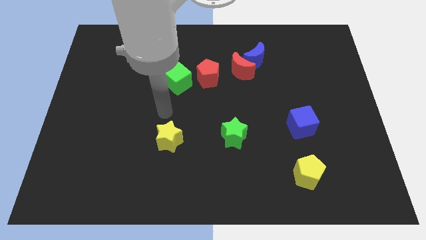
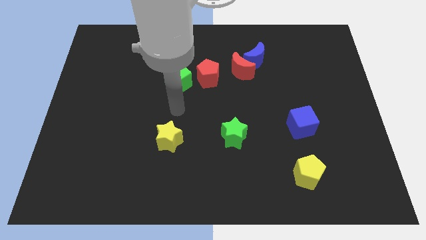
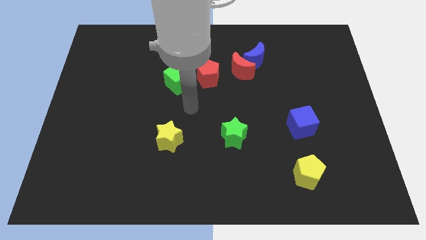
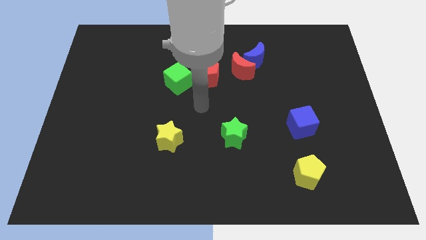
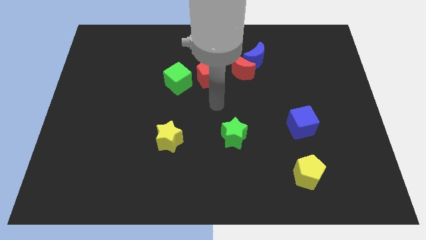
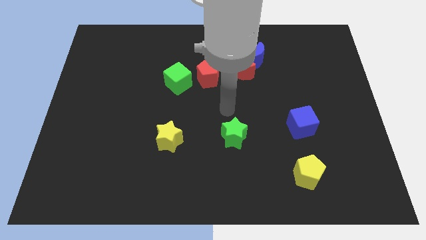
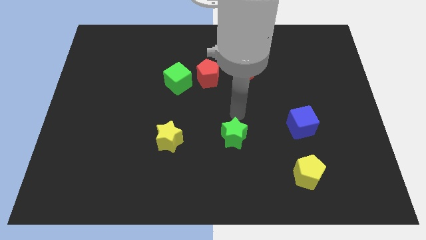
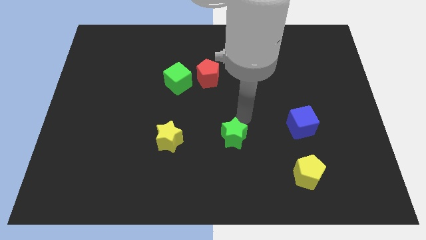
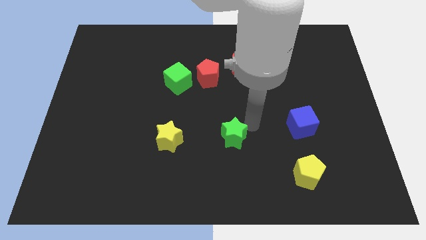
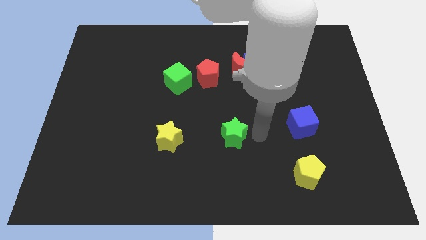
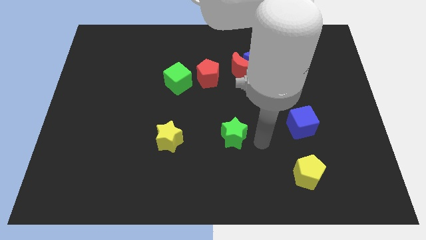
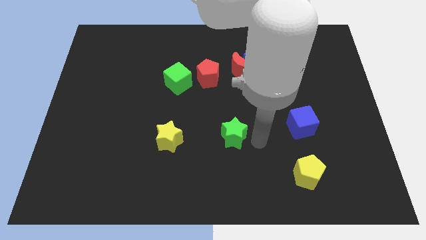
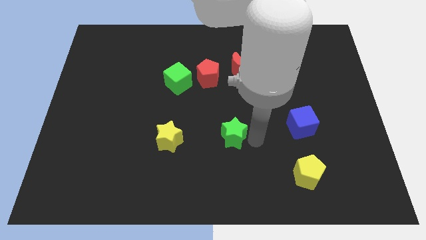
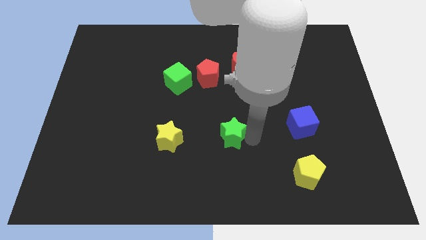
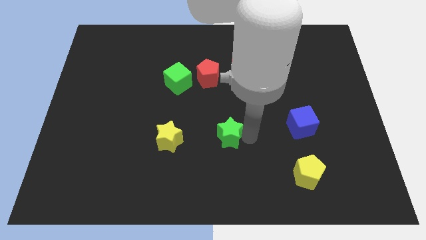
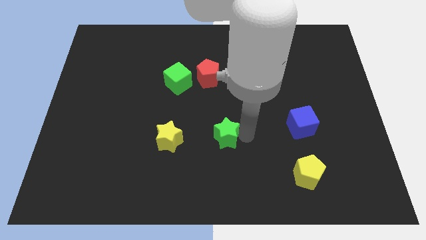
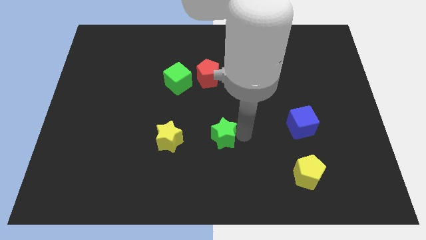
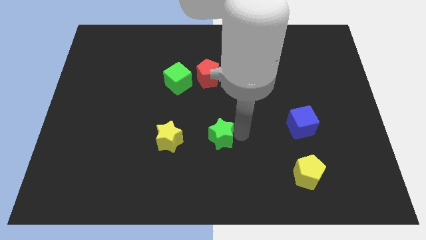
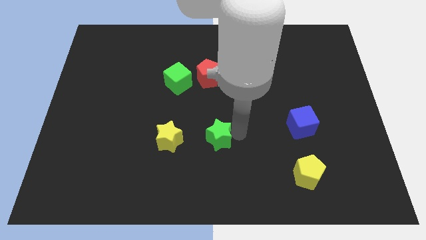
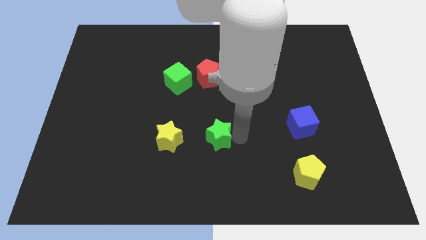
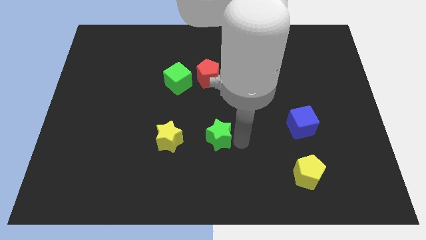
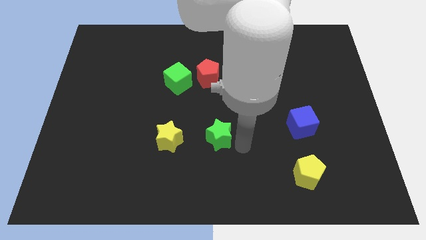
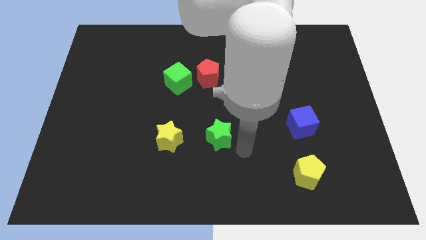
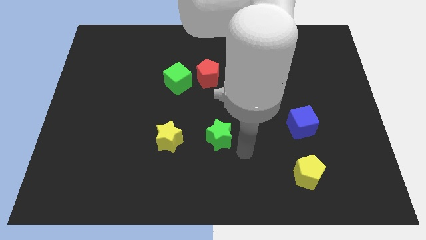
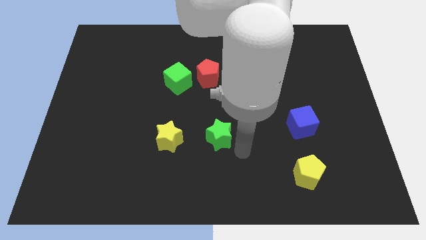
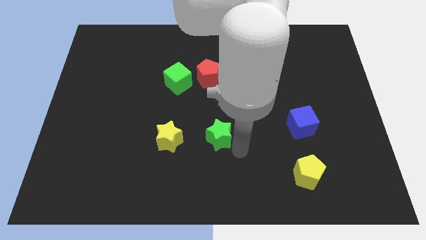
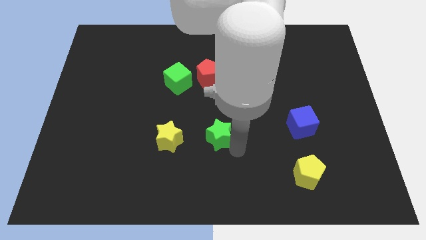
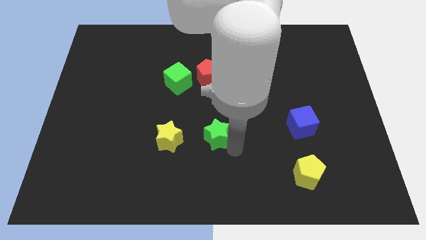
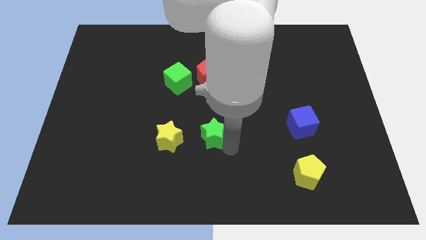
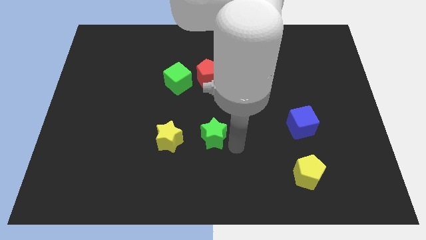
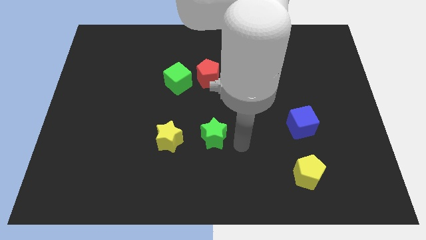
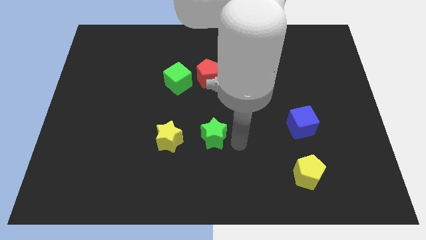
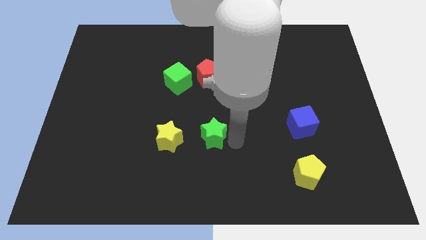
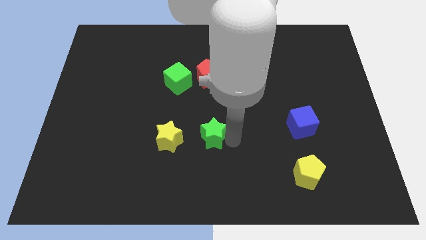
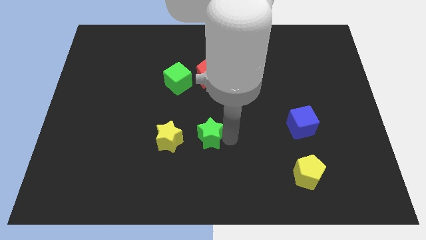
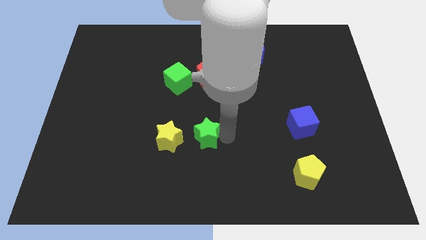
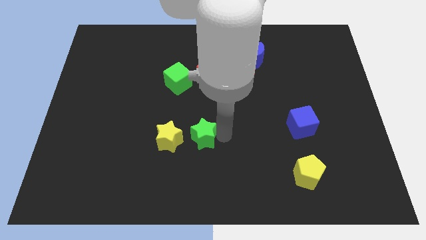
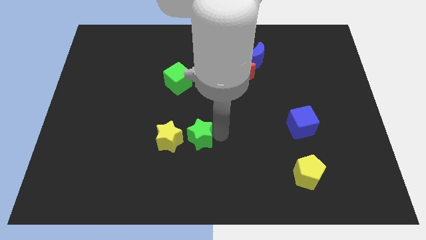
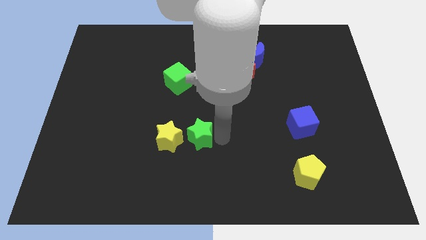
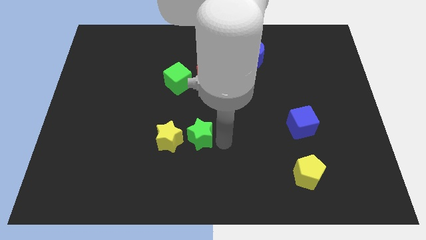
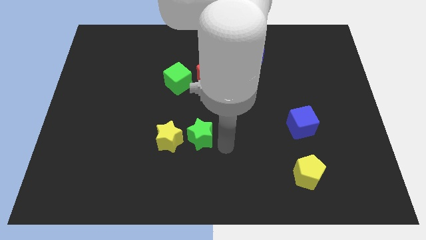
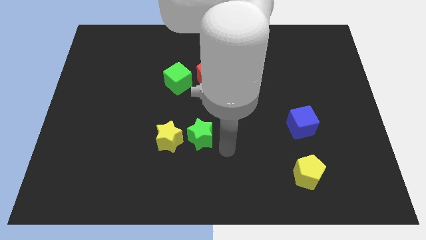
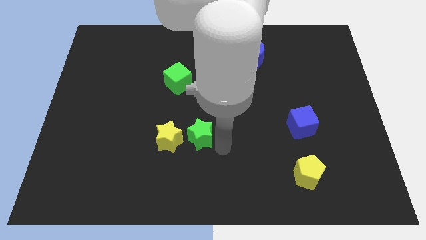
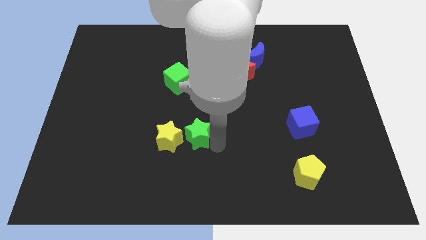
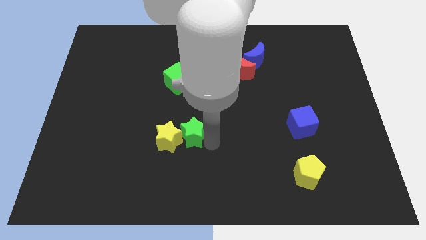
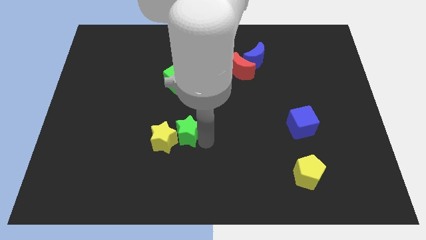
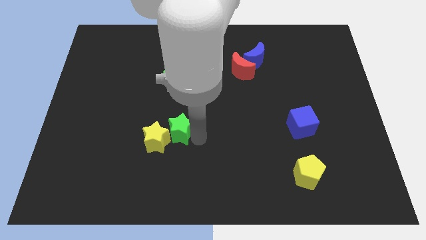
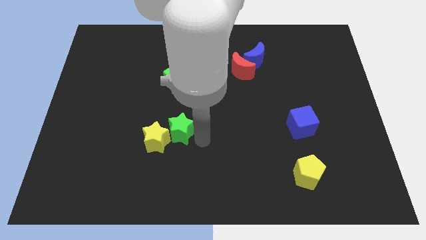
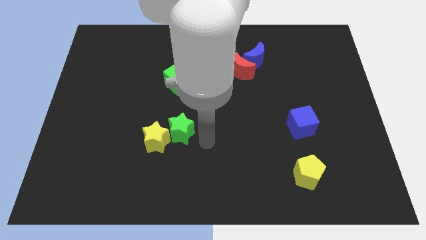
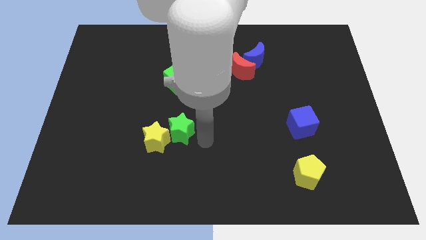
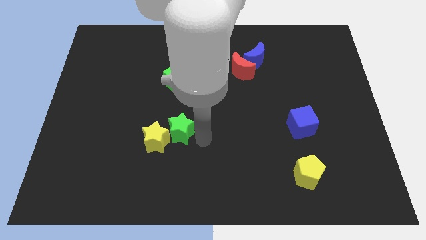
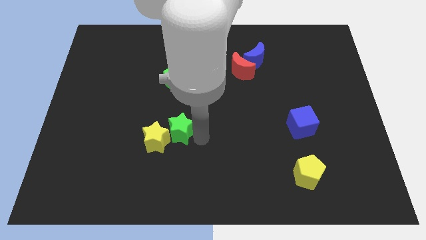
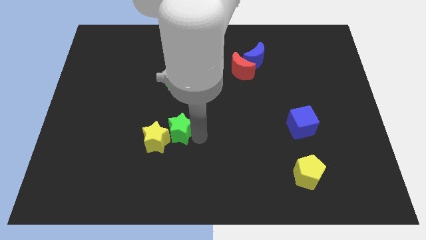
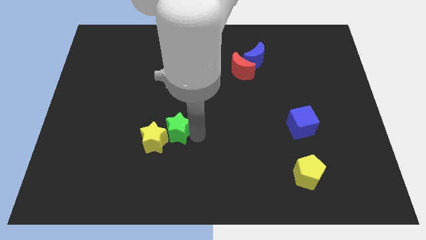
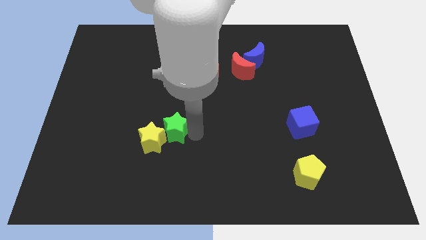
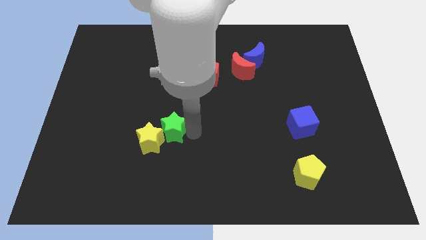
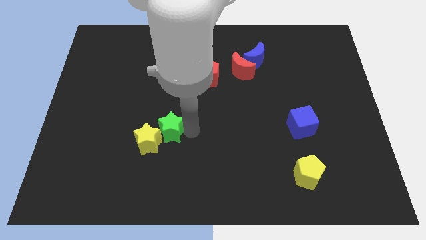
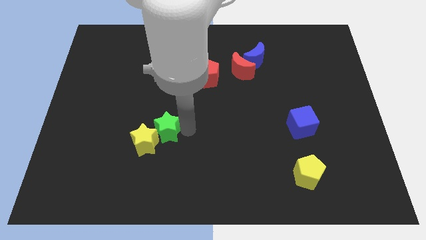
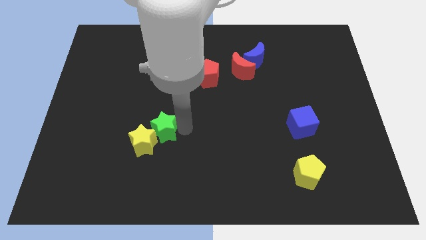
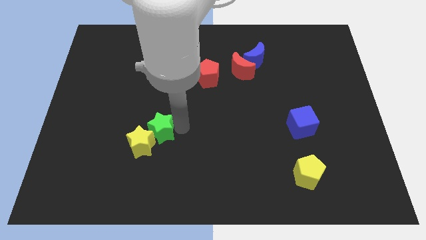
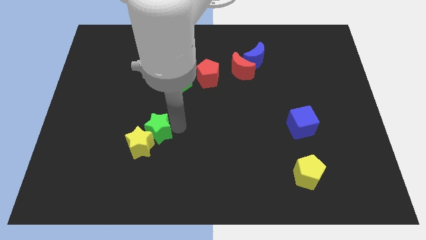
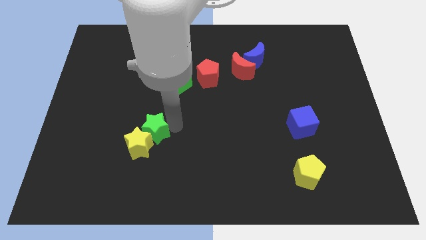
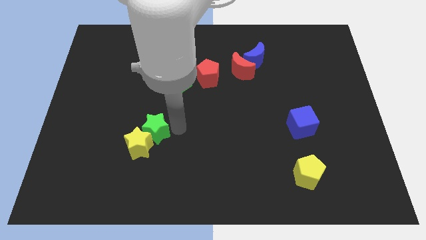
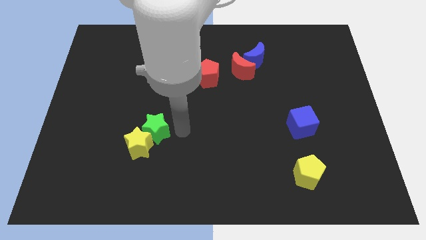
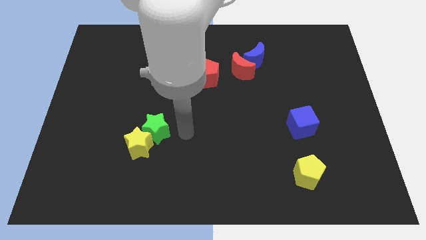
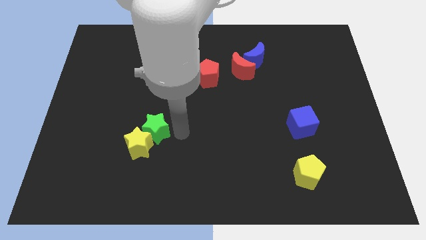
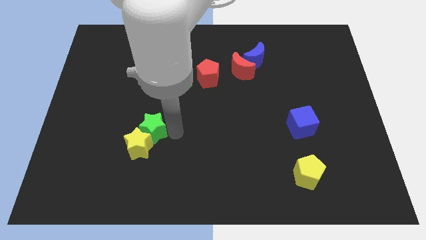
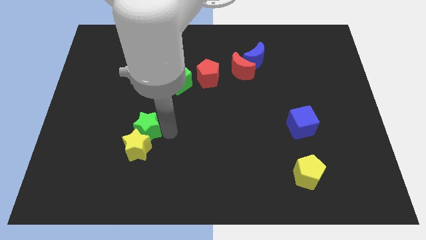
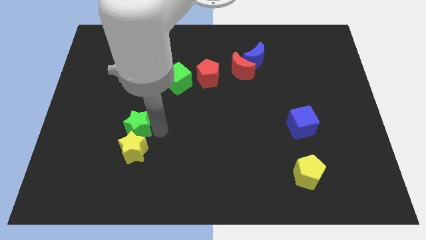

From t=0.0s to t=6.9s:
move the green star left

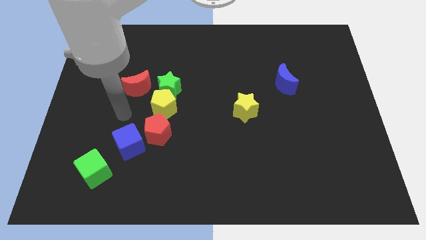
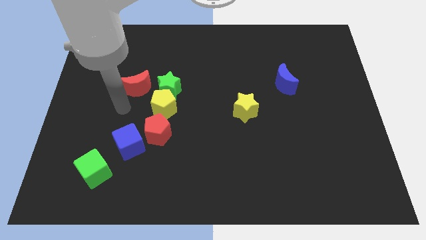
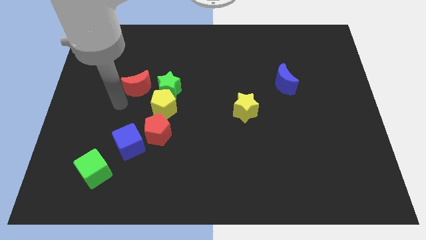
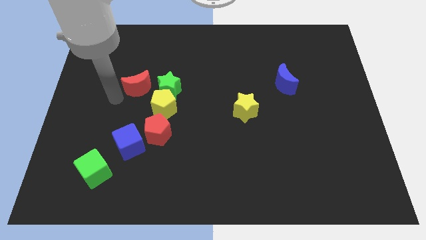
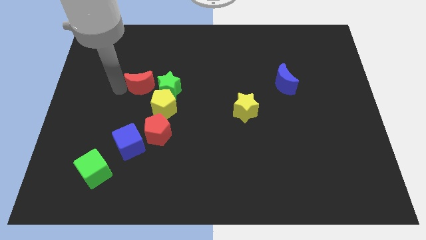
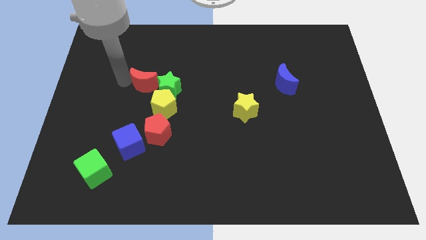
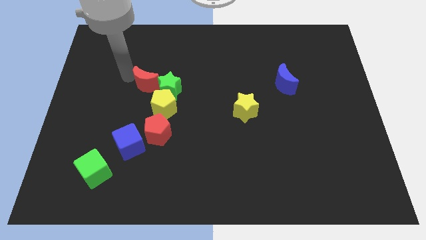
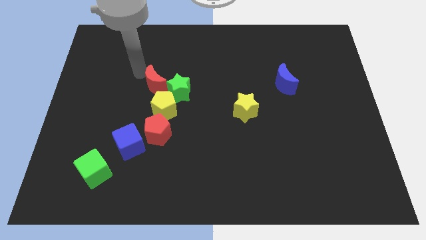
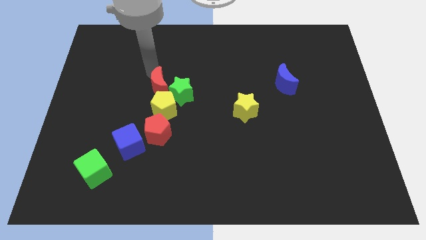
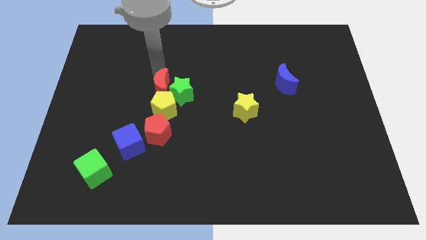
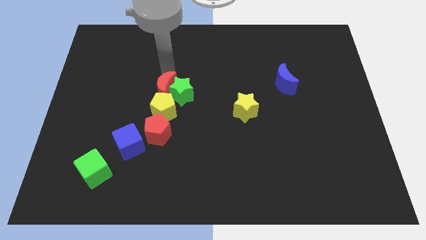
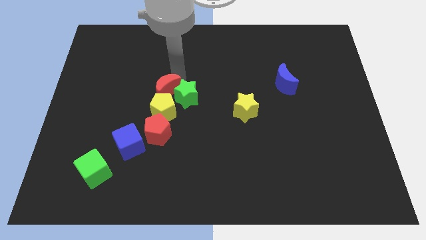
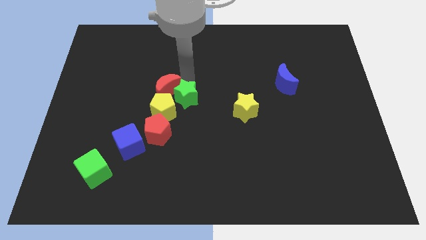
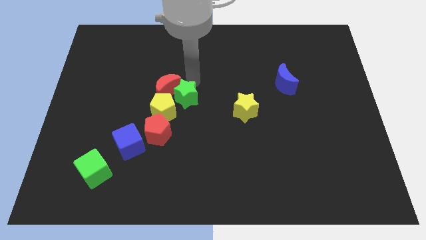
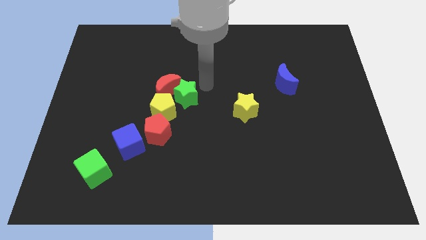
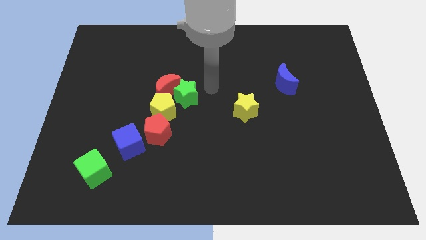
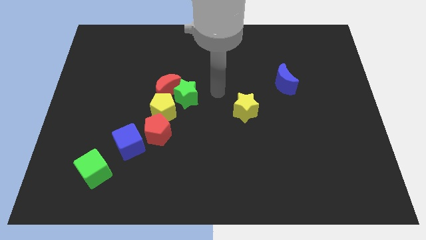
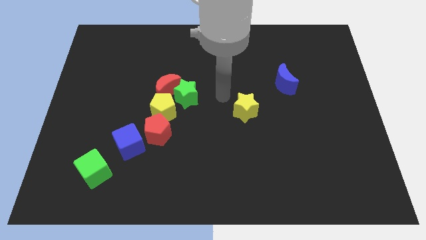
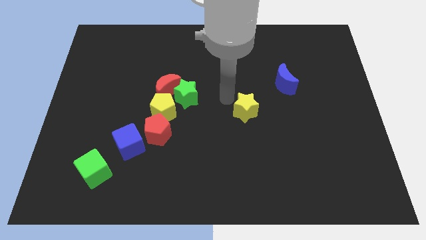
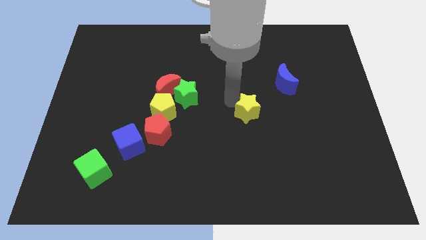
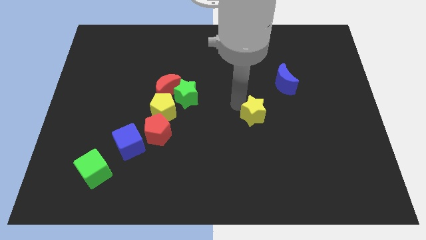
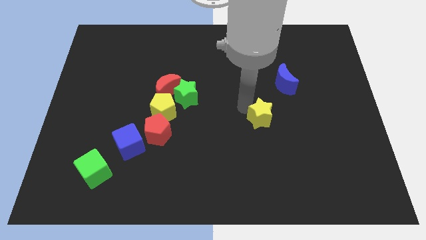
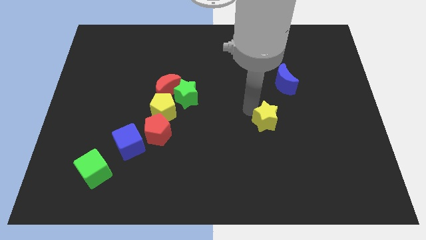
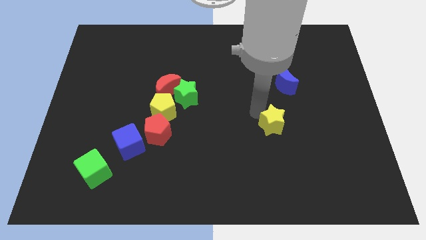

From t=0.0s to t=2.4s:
slide the yellow star down and then to the right a bit
